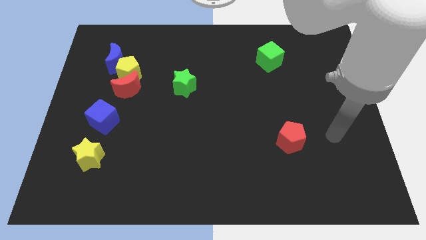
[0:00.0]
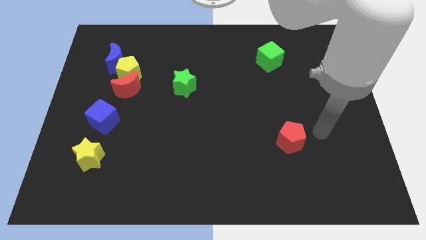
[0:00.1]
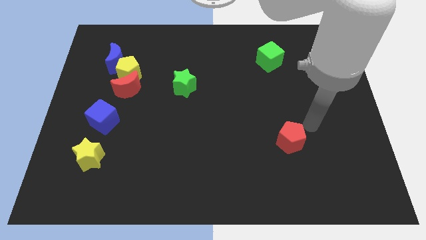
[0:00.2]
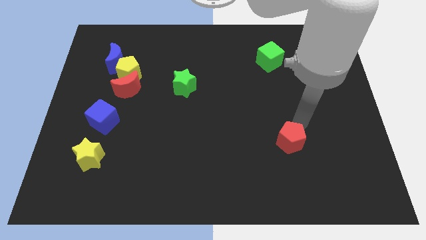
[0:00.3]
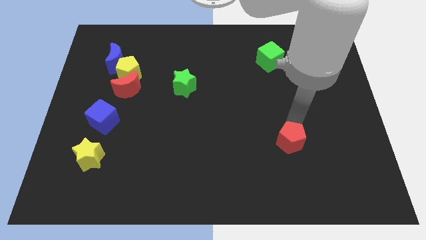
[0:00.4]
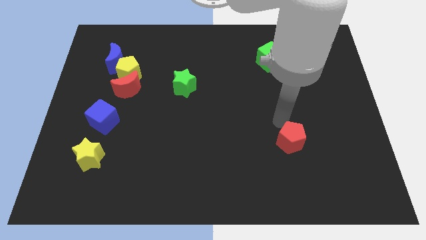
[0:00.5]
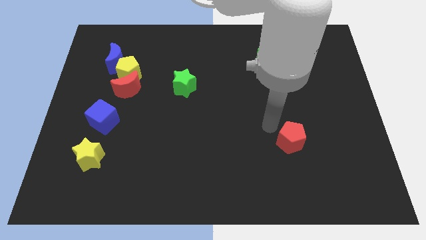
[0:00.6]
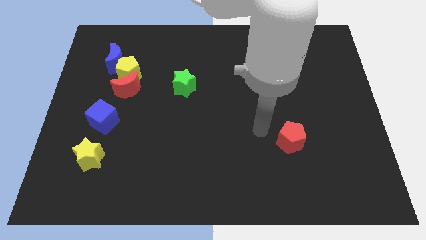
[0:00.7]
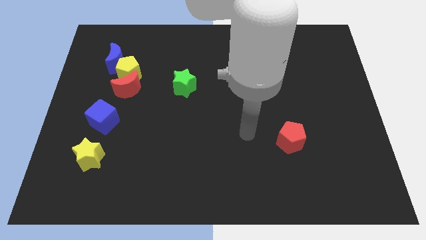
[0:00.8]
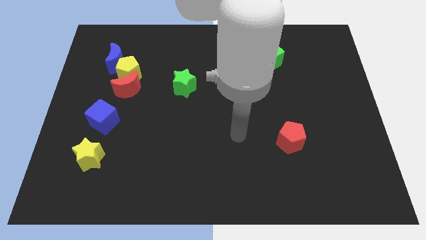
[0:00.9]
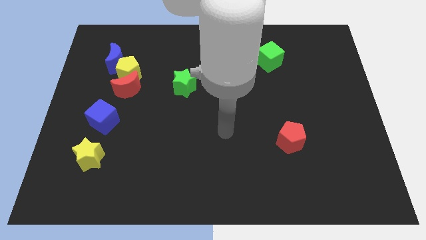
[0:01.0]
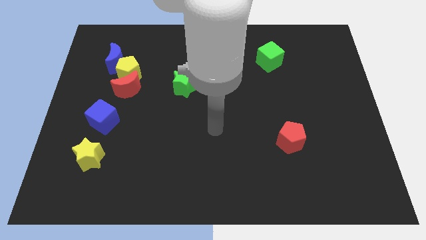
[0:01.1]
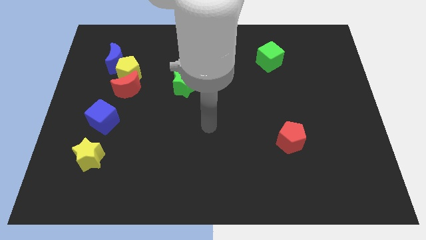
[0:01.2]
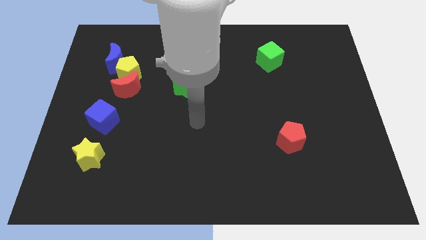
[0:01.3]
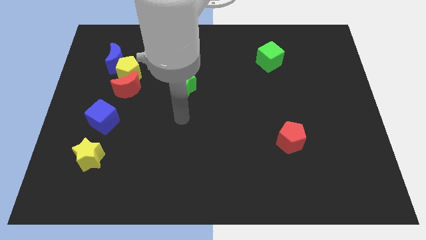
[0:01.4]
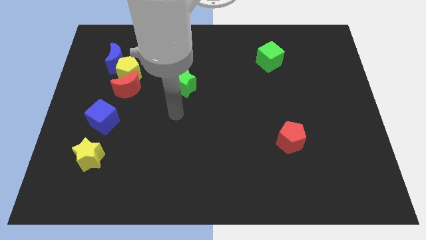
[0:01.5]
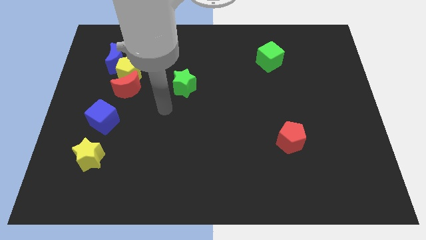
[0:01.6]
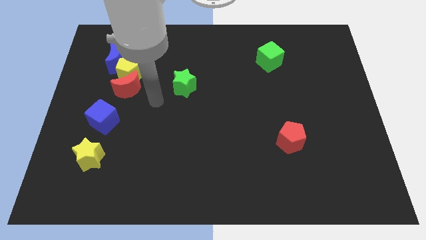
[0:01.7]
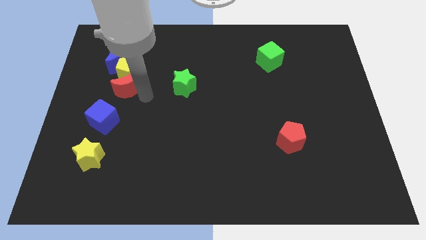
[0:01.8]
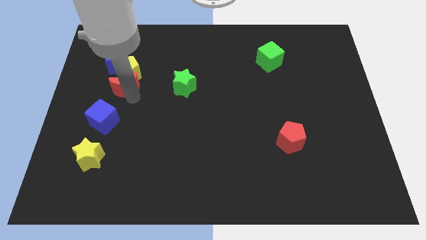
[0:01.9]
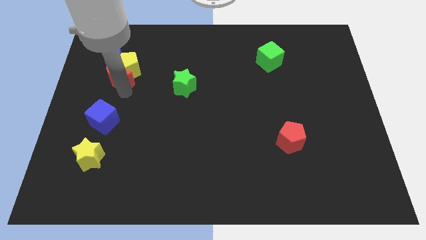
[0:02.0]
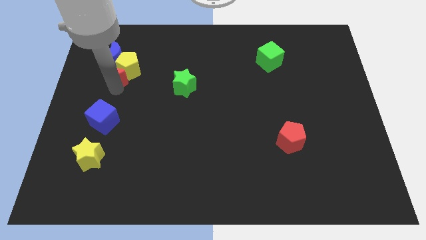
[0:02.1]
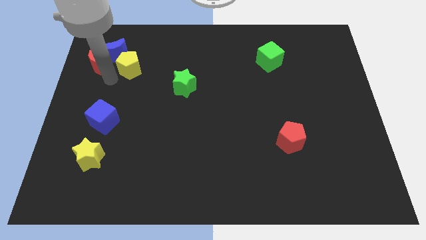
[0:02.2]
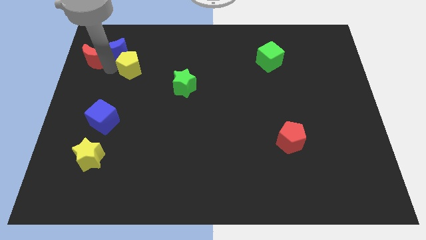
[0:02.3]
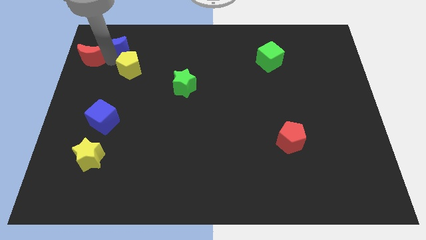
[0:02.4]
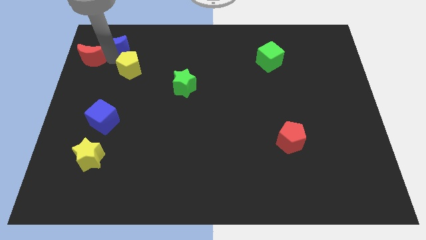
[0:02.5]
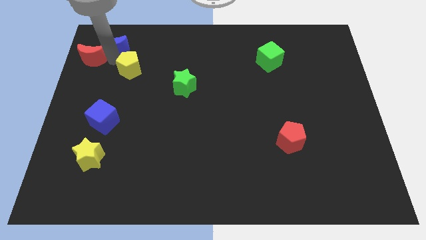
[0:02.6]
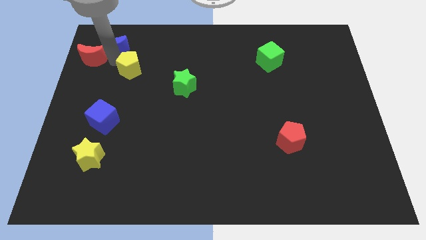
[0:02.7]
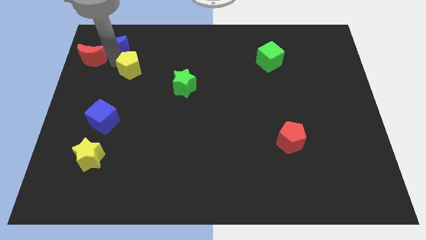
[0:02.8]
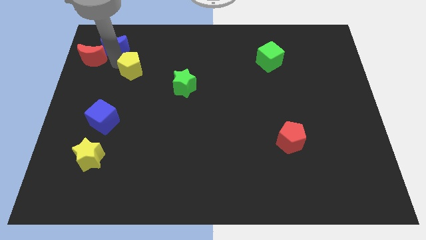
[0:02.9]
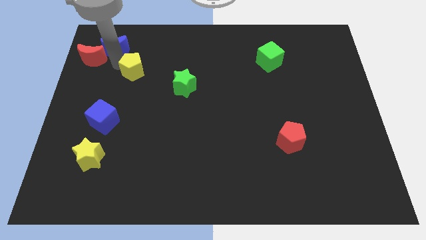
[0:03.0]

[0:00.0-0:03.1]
move the yellow pentagon away from the red moon and blue moon

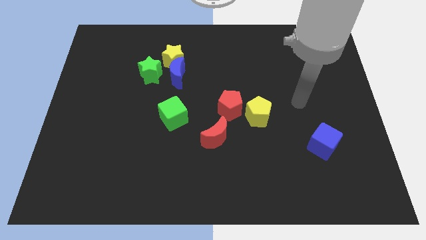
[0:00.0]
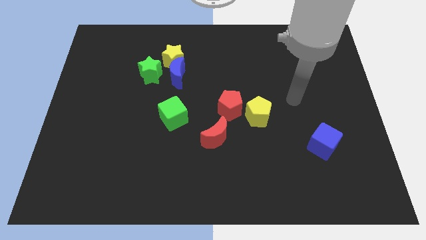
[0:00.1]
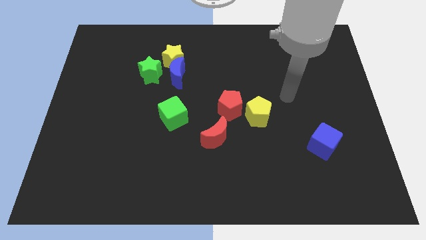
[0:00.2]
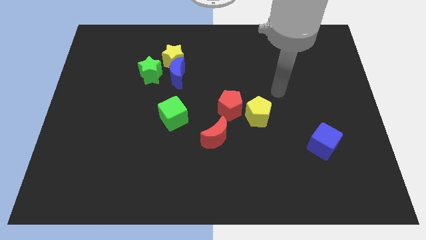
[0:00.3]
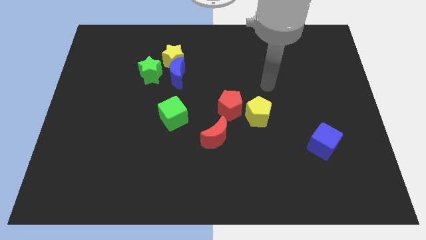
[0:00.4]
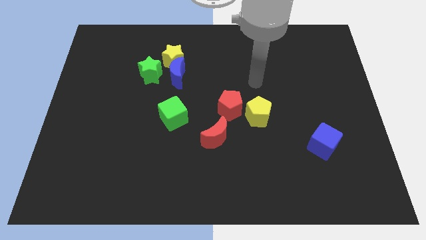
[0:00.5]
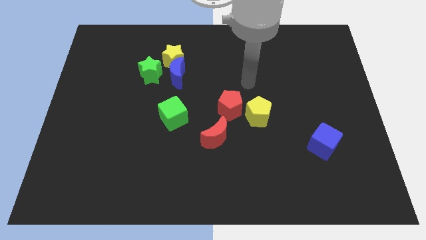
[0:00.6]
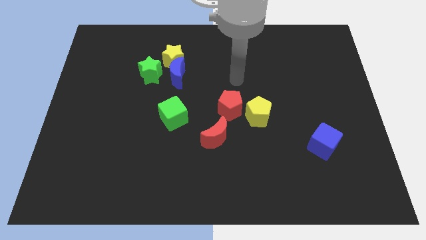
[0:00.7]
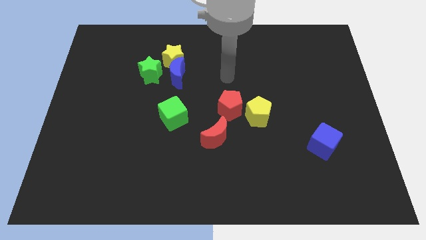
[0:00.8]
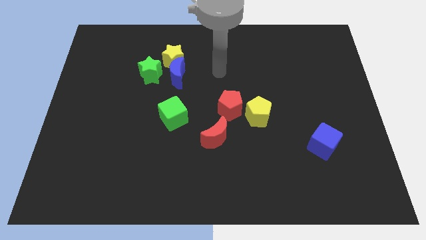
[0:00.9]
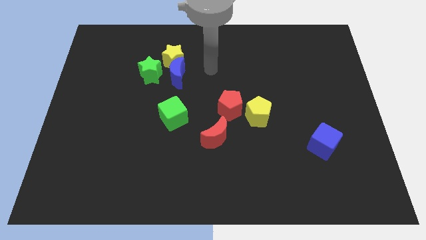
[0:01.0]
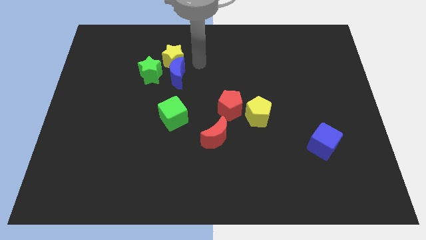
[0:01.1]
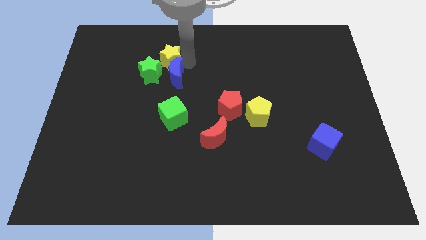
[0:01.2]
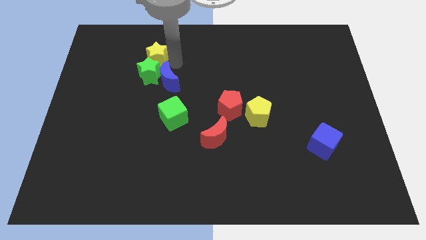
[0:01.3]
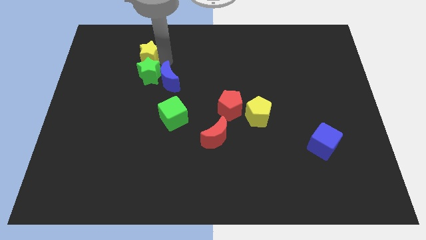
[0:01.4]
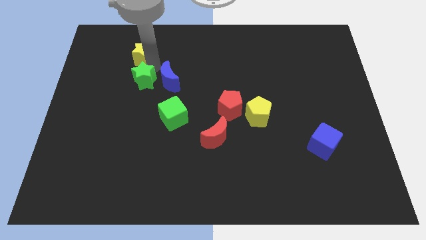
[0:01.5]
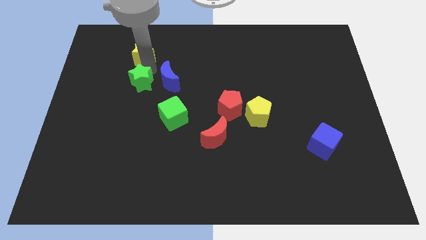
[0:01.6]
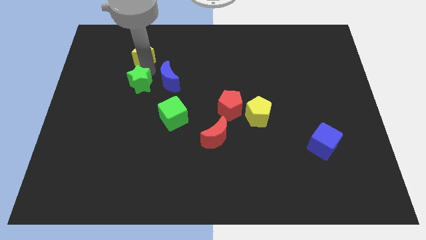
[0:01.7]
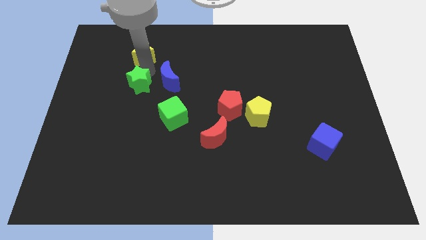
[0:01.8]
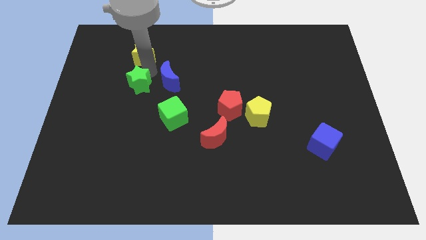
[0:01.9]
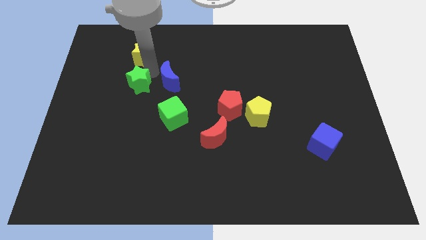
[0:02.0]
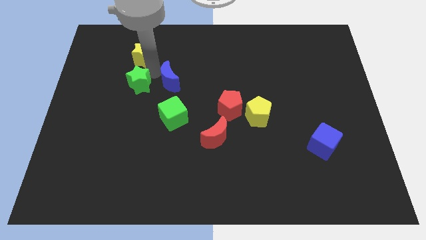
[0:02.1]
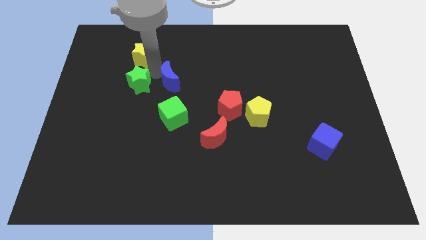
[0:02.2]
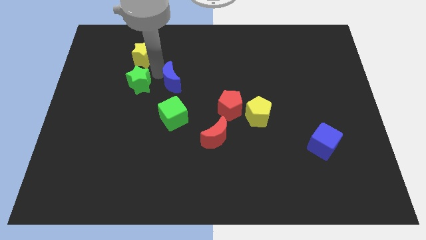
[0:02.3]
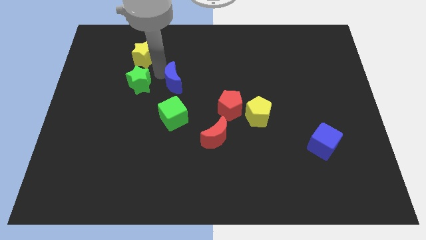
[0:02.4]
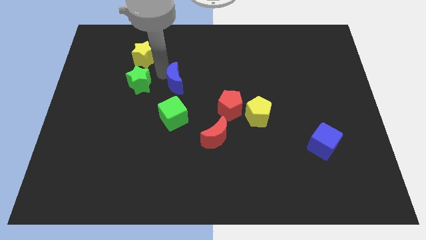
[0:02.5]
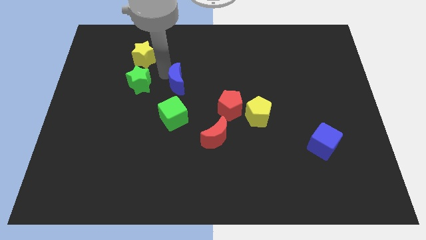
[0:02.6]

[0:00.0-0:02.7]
separate the blue moon from the yellow star and green star

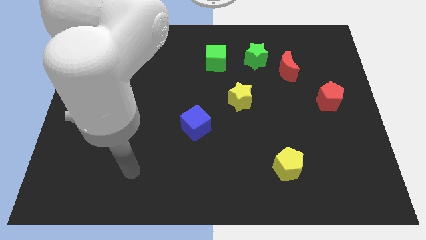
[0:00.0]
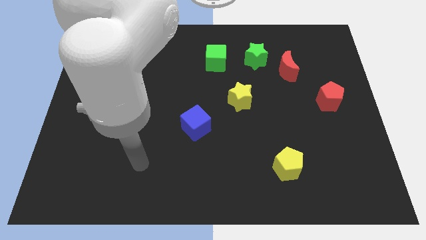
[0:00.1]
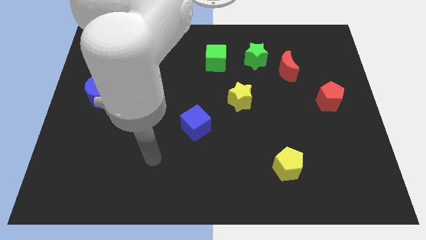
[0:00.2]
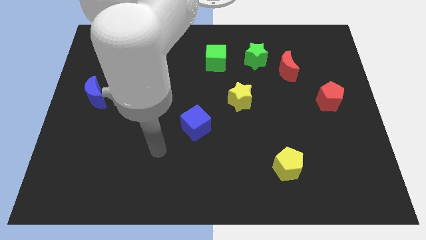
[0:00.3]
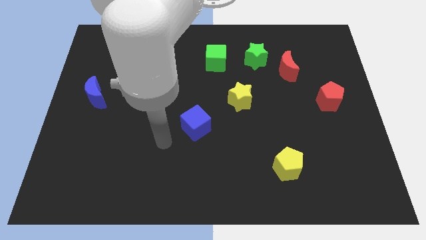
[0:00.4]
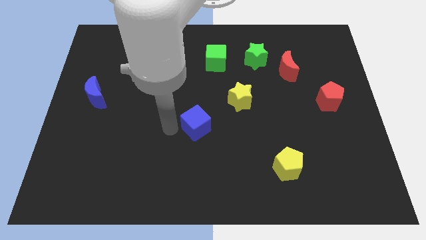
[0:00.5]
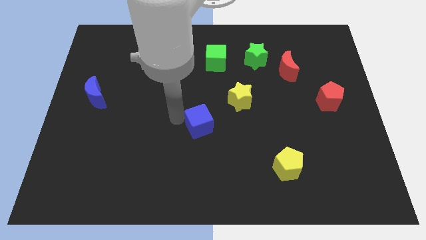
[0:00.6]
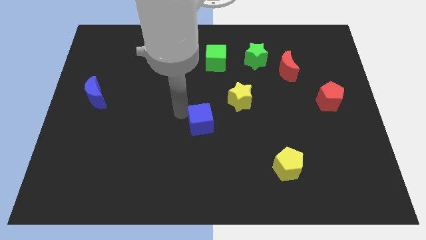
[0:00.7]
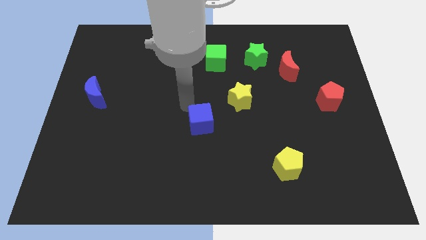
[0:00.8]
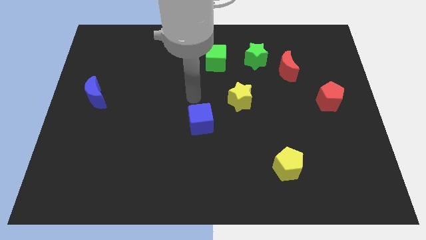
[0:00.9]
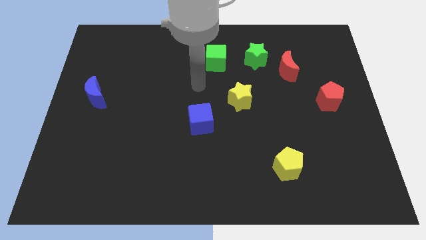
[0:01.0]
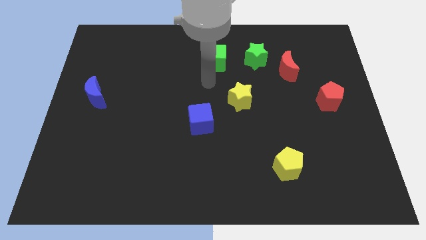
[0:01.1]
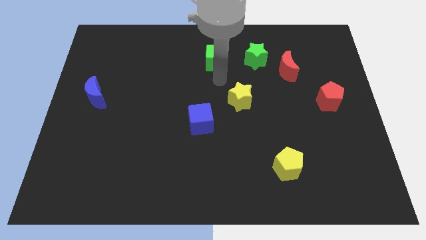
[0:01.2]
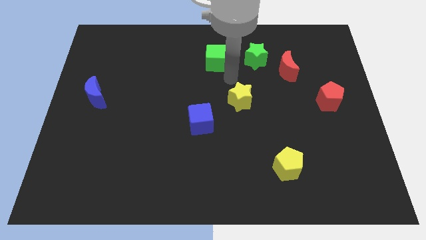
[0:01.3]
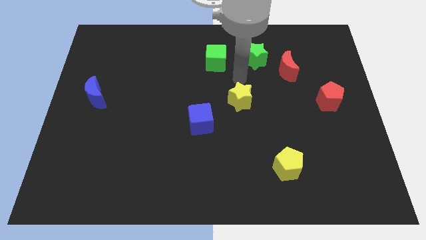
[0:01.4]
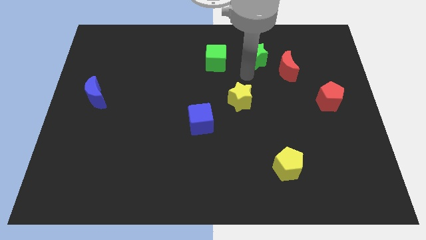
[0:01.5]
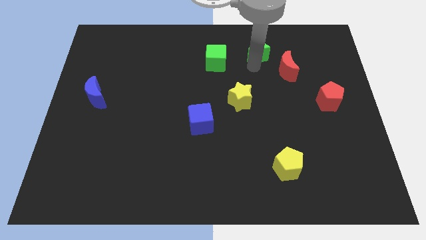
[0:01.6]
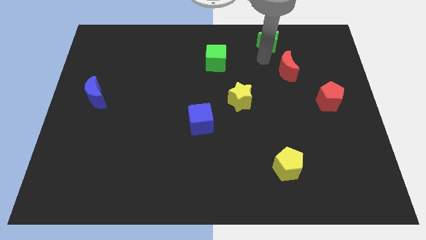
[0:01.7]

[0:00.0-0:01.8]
separate the red moon from the green star

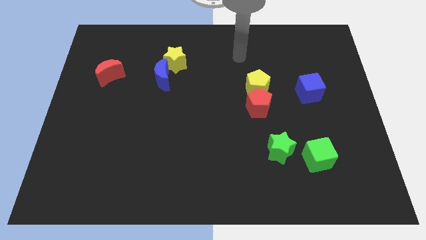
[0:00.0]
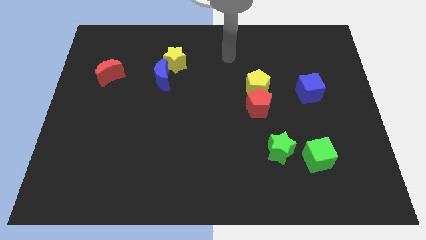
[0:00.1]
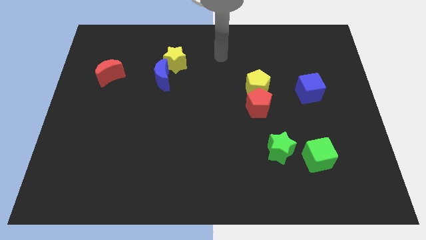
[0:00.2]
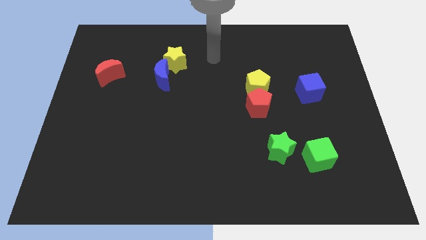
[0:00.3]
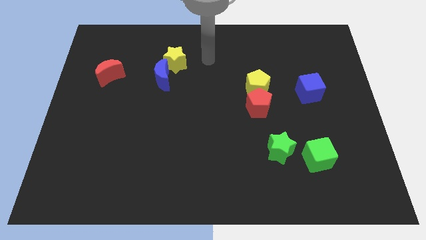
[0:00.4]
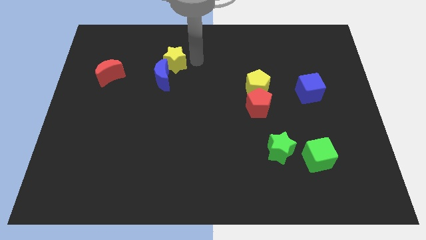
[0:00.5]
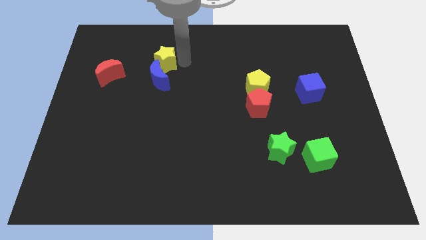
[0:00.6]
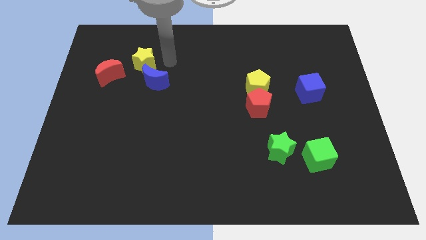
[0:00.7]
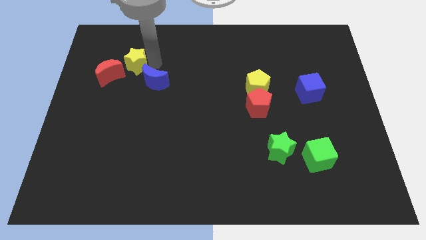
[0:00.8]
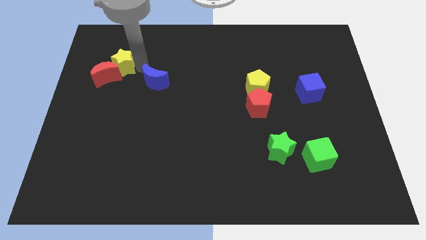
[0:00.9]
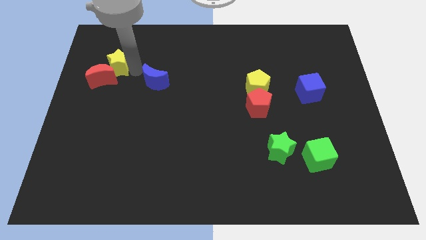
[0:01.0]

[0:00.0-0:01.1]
move the blue moon away from the yellow star

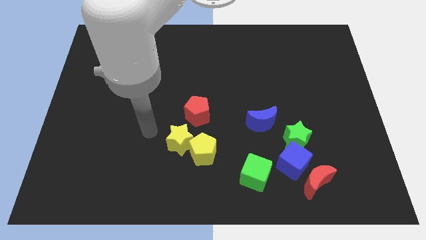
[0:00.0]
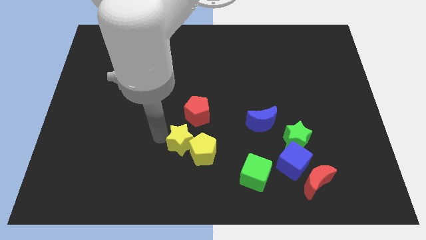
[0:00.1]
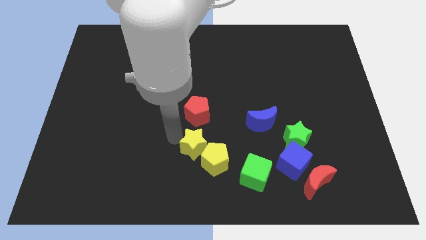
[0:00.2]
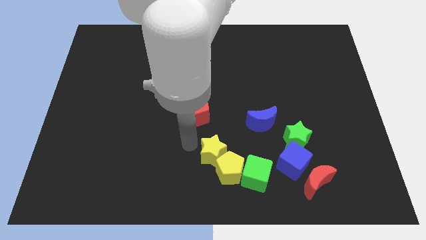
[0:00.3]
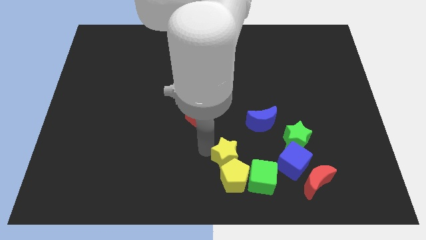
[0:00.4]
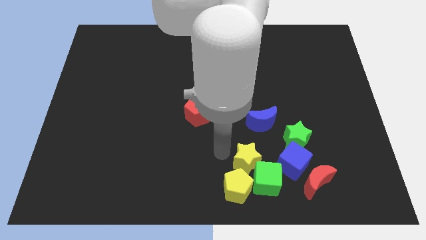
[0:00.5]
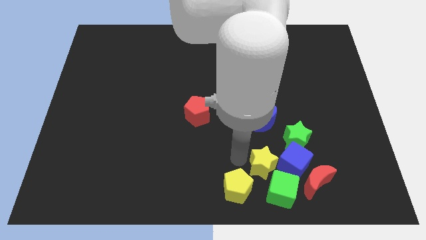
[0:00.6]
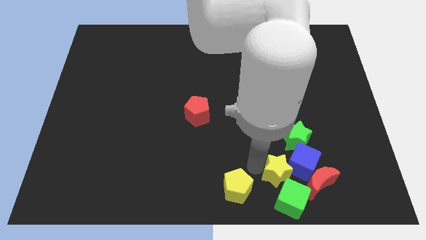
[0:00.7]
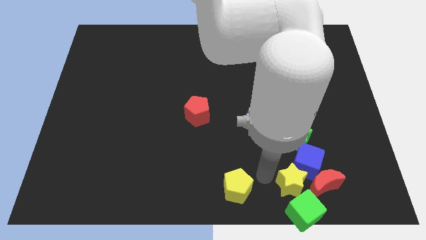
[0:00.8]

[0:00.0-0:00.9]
separate the yellow pentagon from the yellow star
